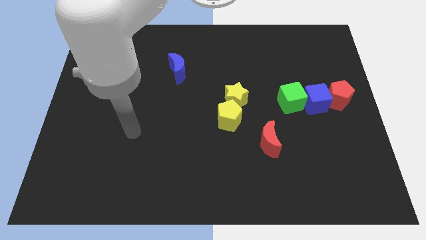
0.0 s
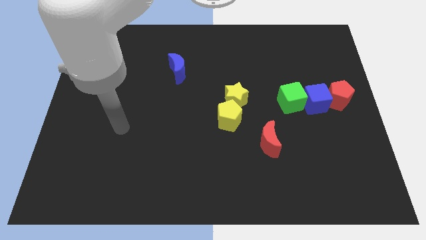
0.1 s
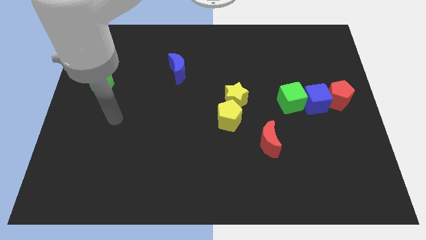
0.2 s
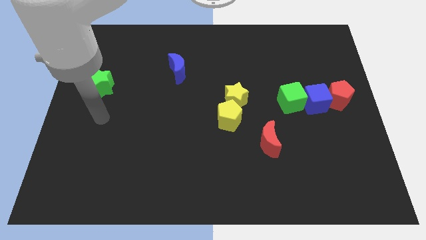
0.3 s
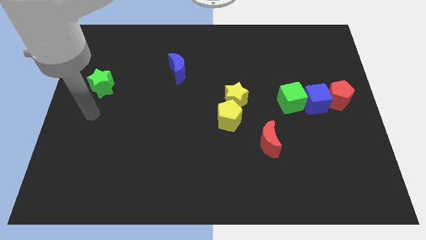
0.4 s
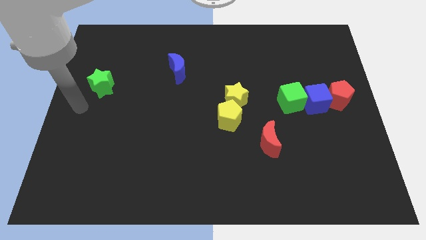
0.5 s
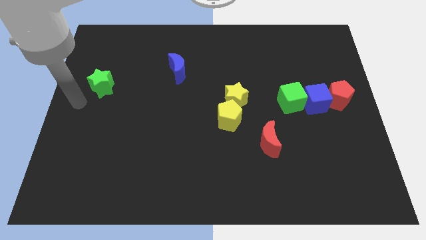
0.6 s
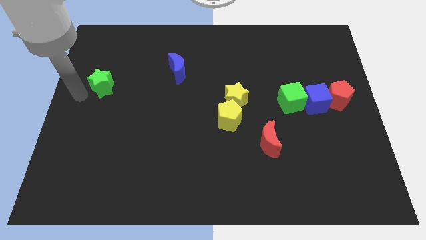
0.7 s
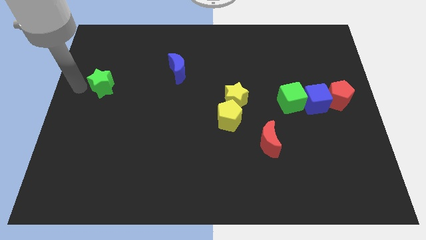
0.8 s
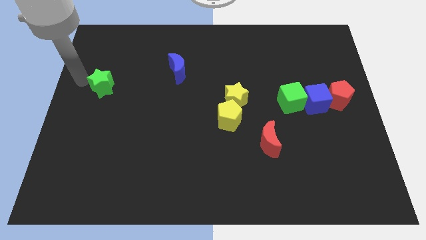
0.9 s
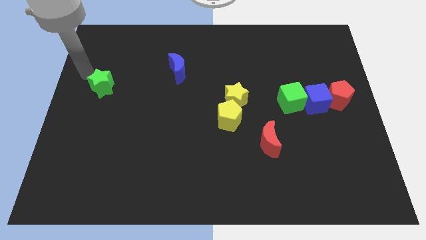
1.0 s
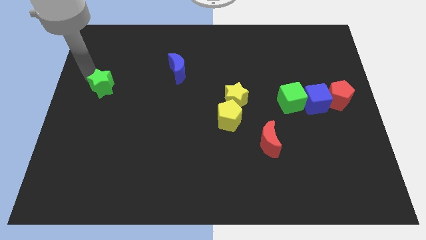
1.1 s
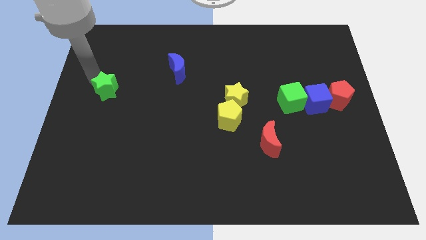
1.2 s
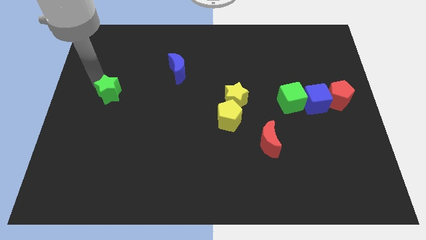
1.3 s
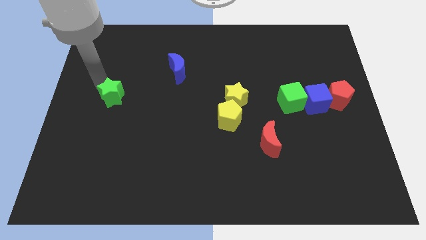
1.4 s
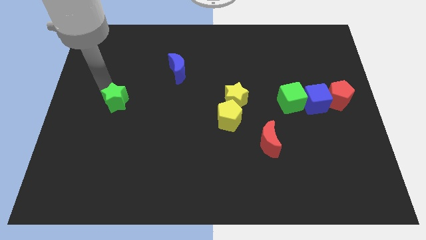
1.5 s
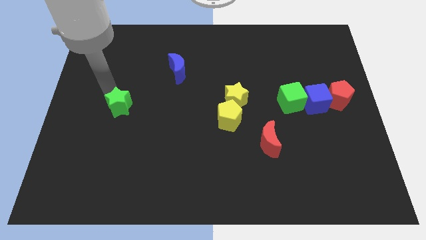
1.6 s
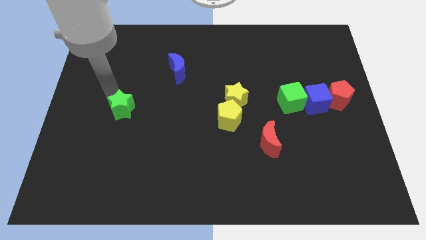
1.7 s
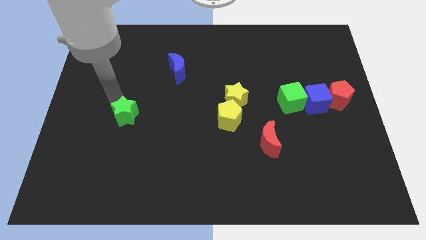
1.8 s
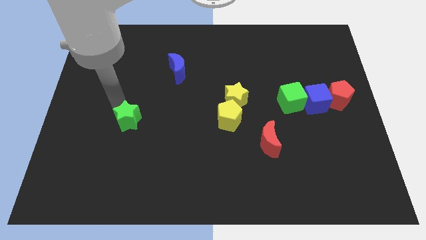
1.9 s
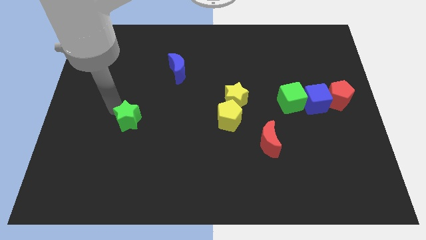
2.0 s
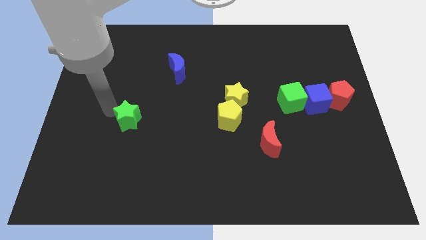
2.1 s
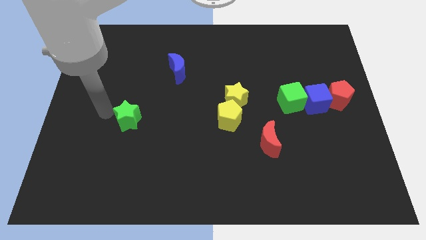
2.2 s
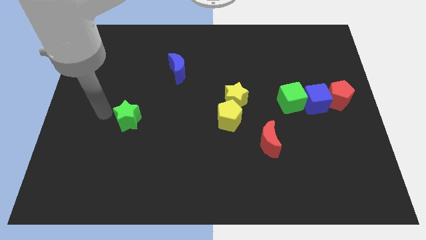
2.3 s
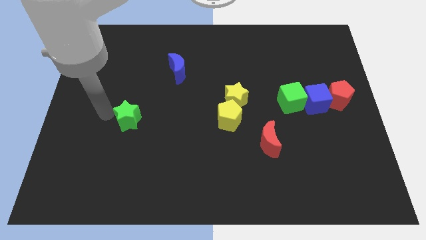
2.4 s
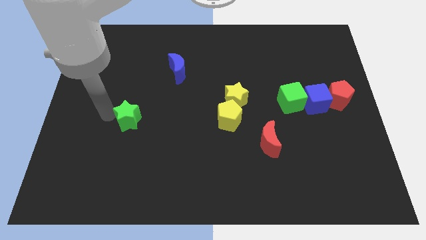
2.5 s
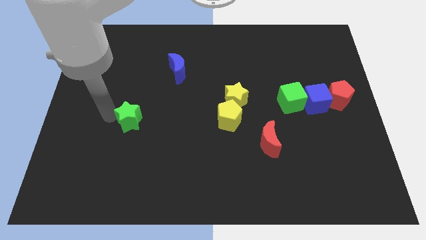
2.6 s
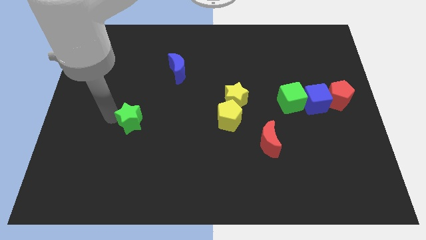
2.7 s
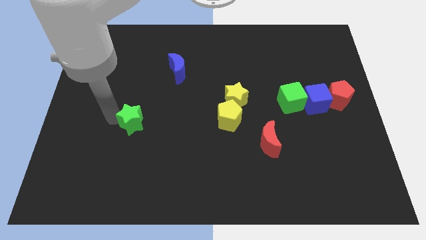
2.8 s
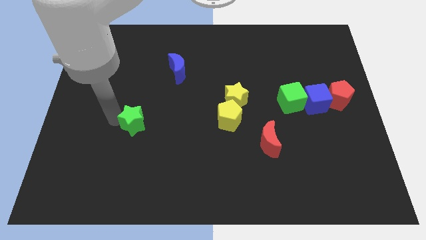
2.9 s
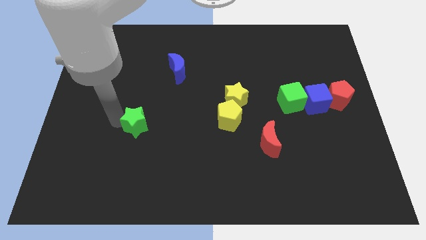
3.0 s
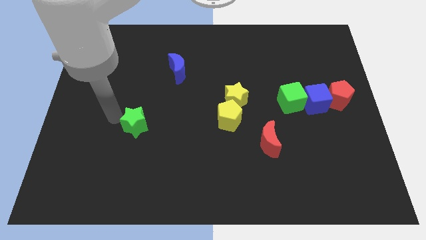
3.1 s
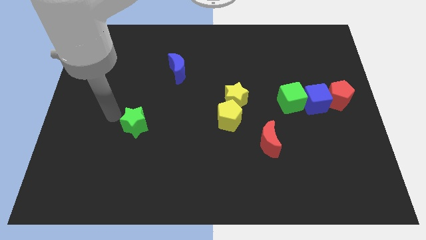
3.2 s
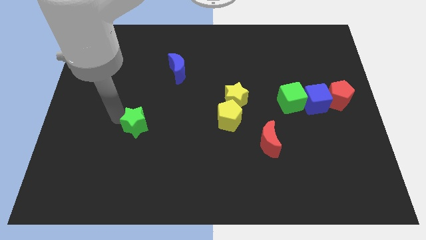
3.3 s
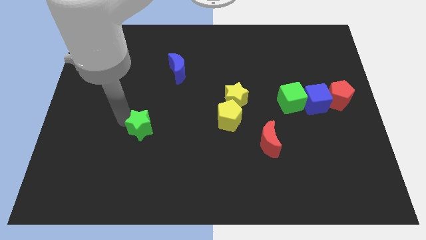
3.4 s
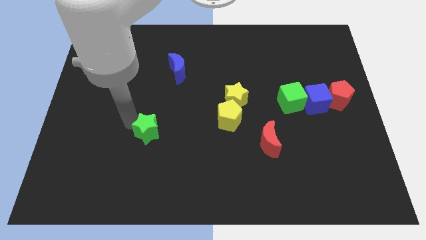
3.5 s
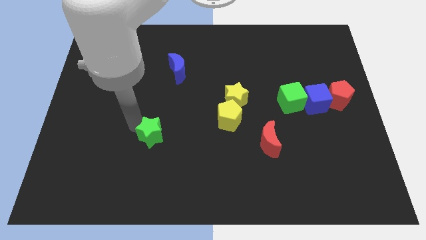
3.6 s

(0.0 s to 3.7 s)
push the green star downwards and right

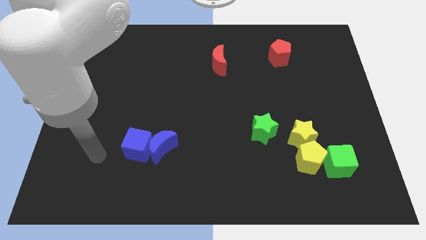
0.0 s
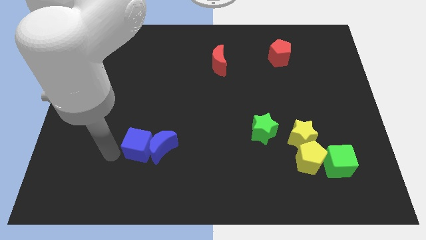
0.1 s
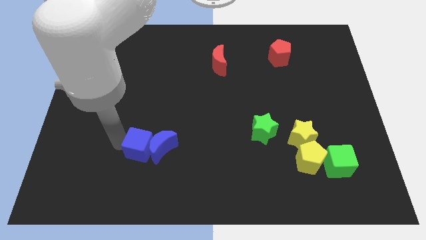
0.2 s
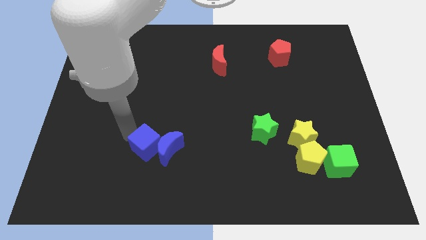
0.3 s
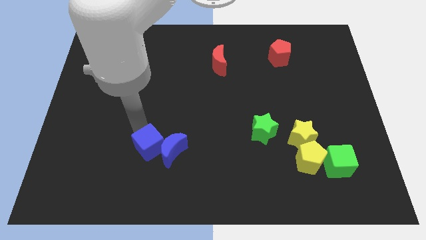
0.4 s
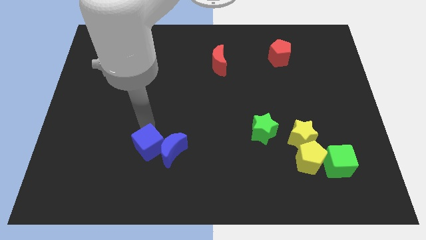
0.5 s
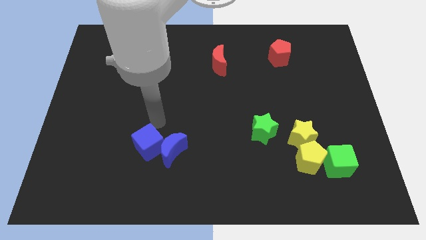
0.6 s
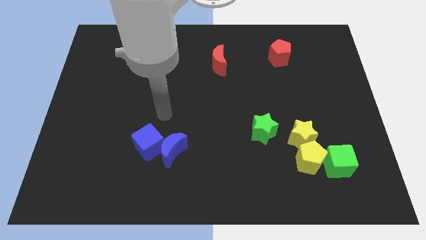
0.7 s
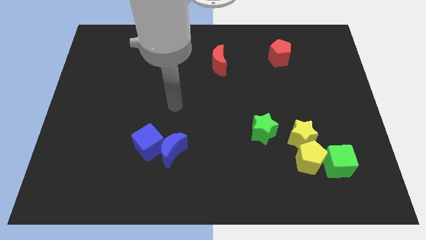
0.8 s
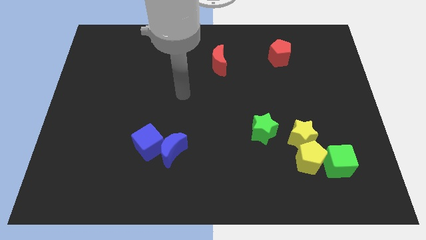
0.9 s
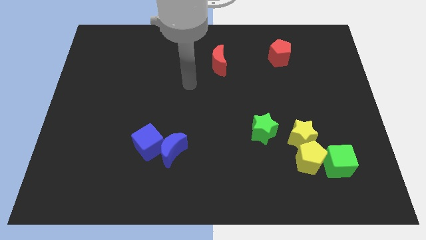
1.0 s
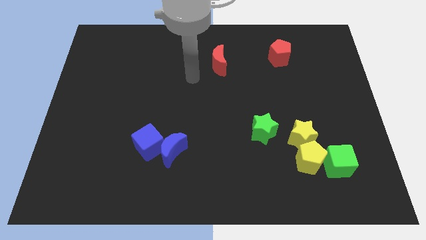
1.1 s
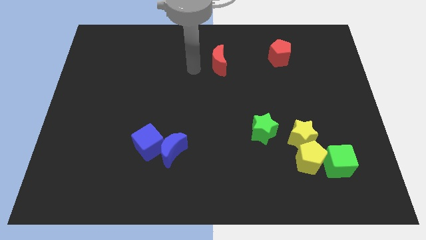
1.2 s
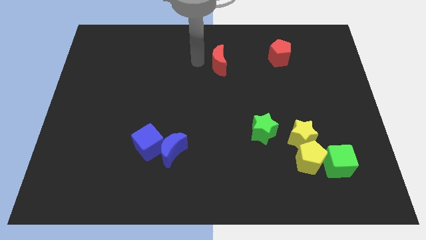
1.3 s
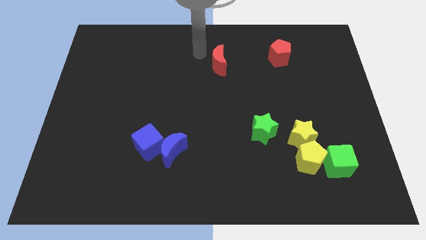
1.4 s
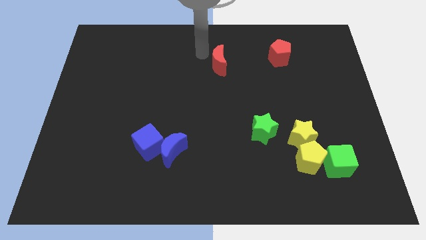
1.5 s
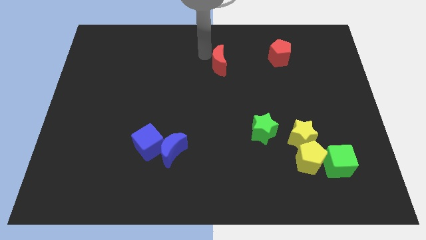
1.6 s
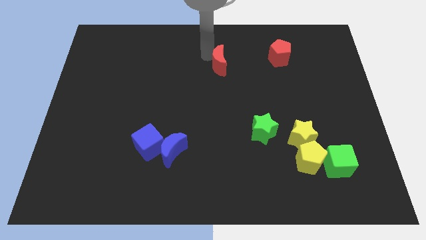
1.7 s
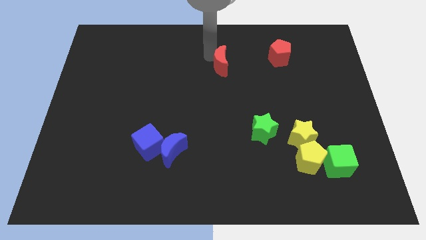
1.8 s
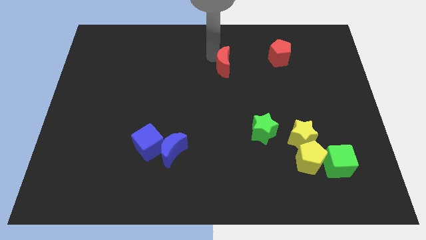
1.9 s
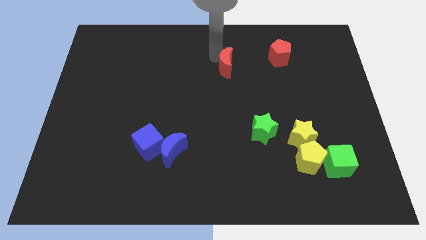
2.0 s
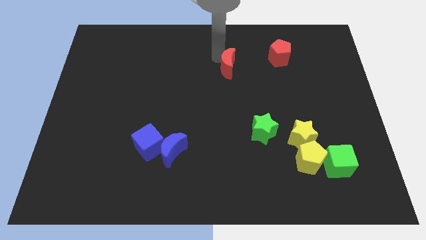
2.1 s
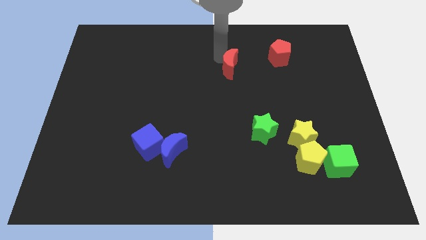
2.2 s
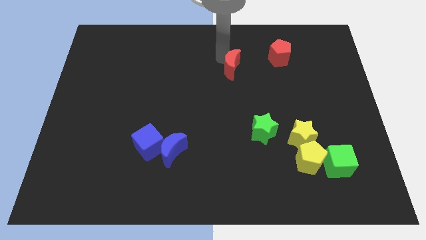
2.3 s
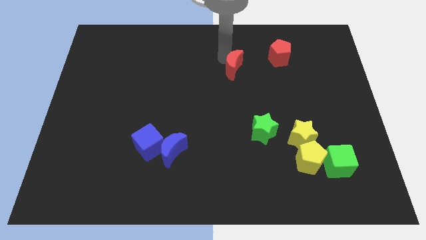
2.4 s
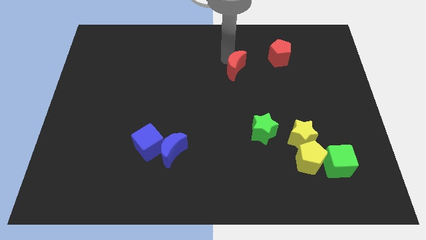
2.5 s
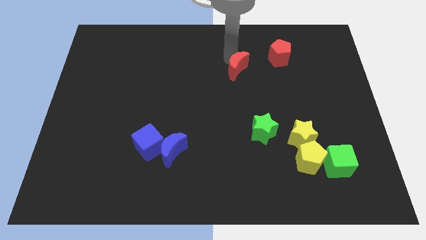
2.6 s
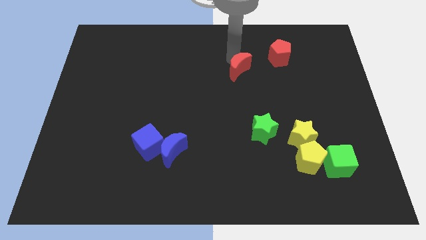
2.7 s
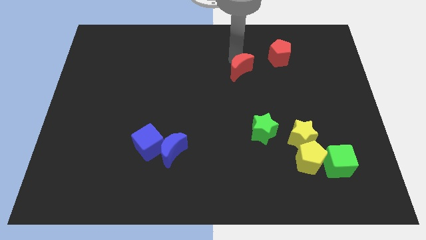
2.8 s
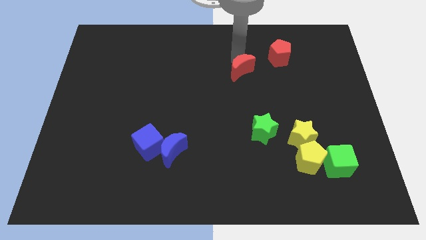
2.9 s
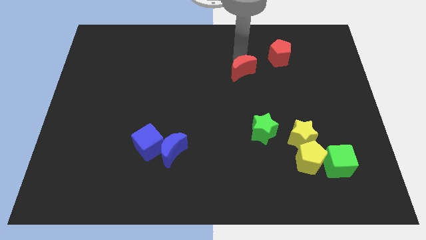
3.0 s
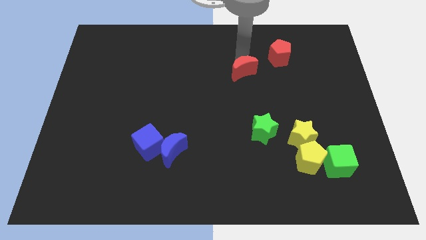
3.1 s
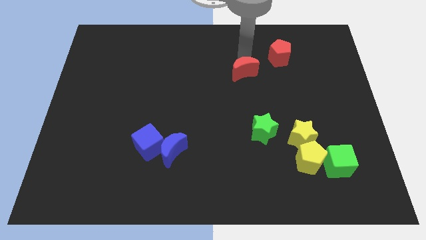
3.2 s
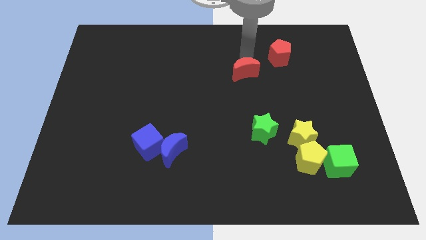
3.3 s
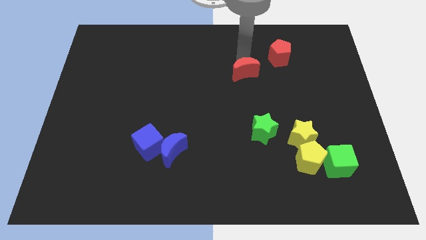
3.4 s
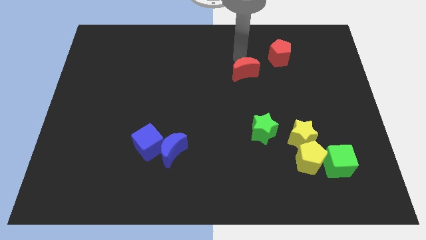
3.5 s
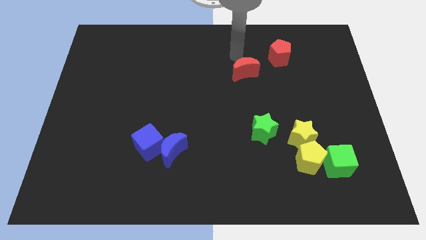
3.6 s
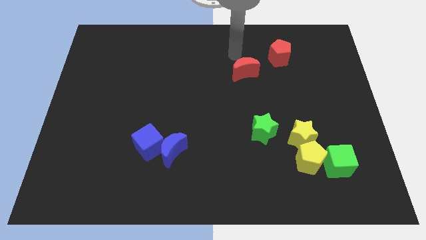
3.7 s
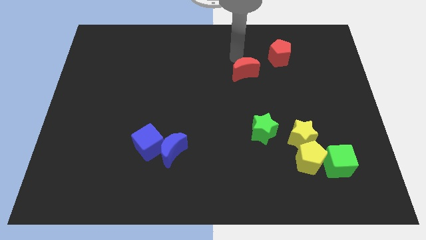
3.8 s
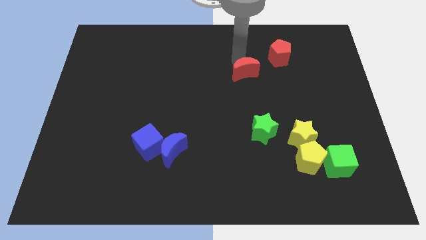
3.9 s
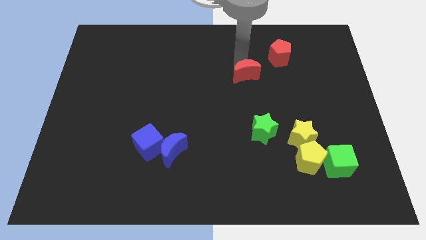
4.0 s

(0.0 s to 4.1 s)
slide the red moon a little down and then right

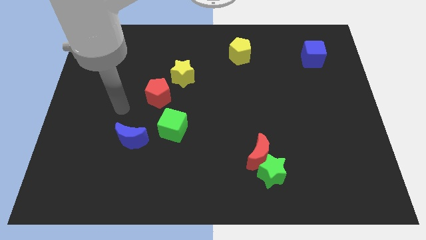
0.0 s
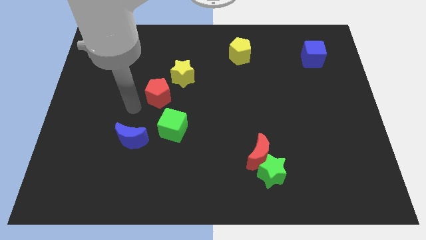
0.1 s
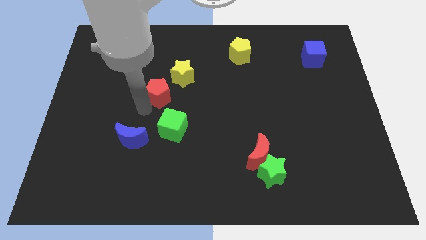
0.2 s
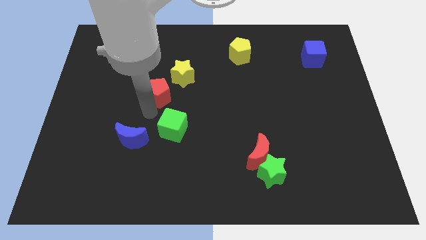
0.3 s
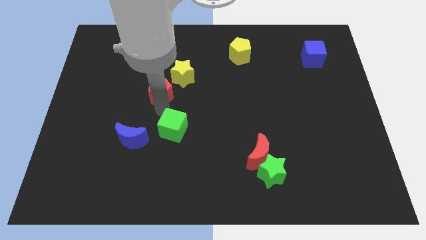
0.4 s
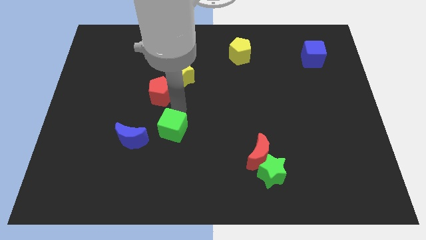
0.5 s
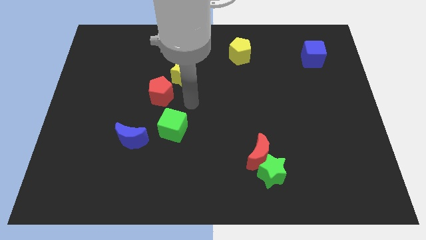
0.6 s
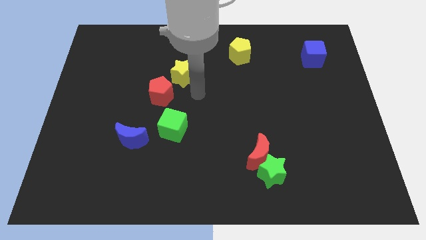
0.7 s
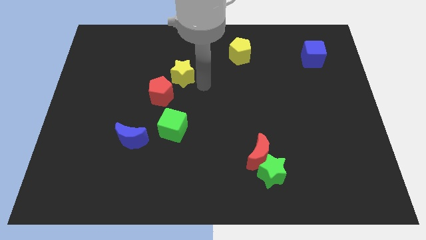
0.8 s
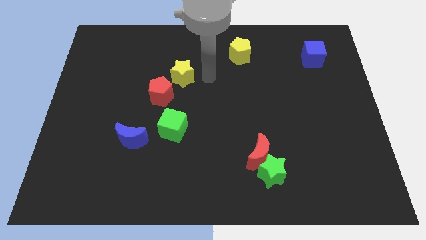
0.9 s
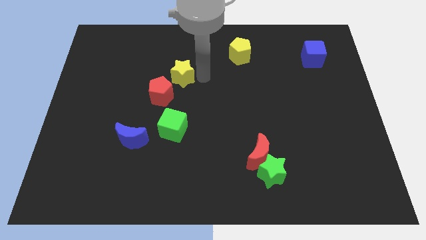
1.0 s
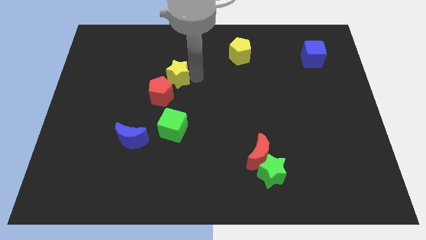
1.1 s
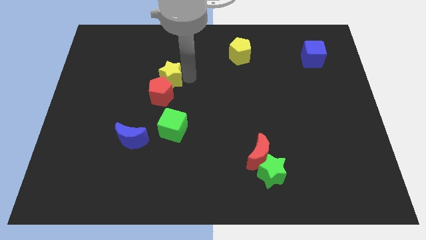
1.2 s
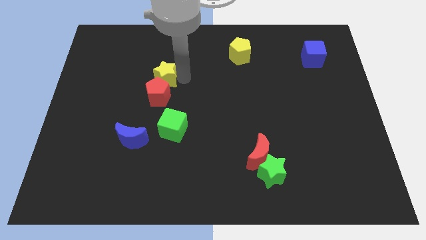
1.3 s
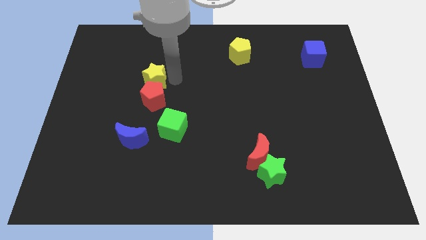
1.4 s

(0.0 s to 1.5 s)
move the yellow star a little left
